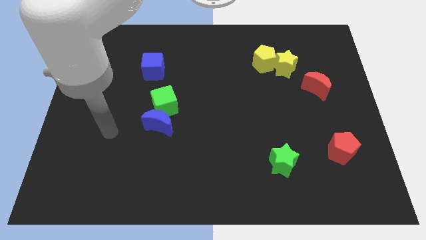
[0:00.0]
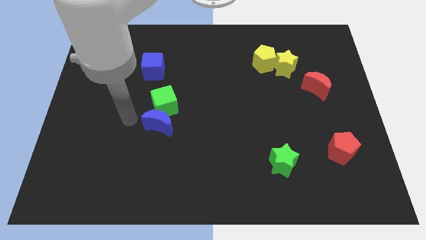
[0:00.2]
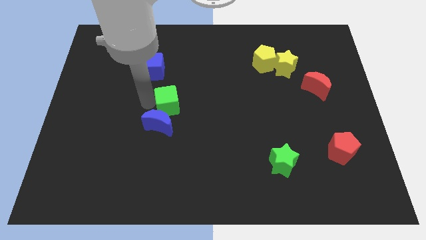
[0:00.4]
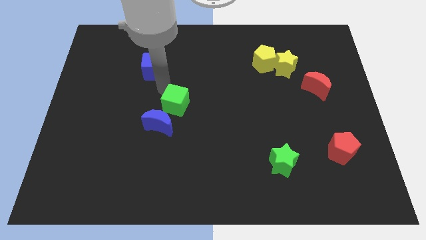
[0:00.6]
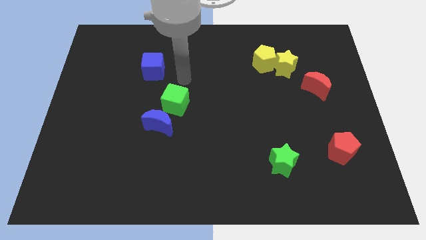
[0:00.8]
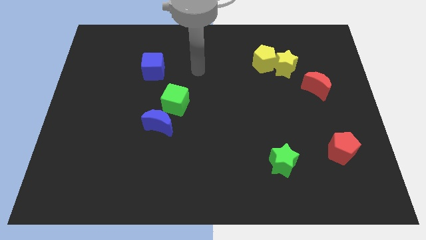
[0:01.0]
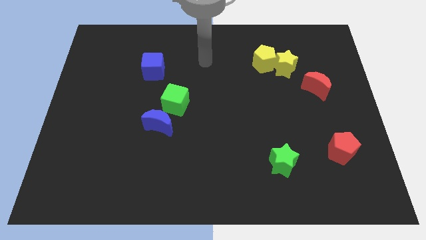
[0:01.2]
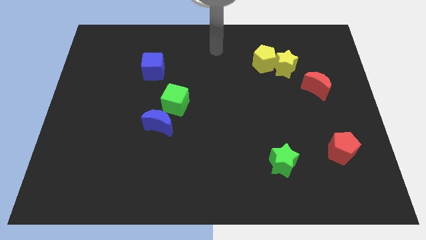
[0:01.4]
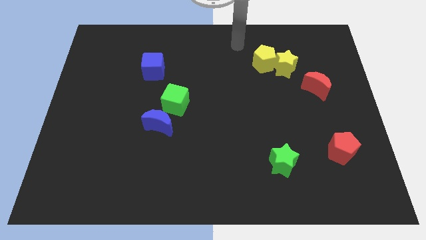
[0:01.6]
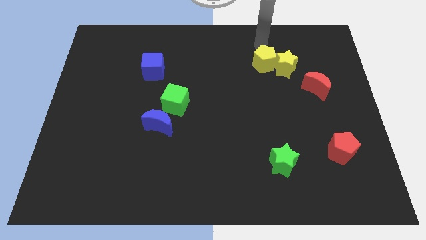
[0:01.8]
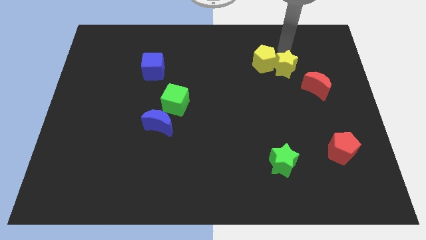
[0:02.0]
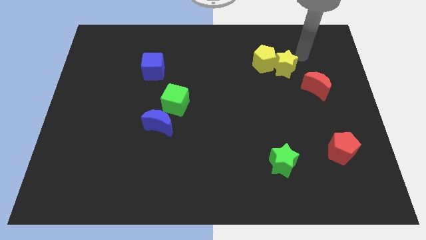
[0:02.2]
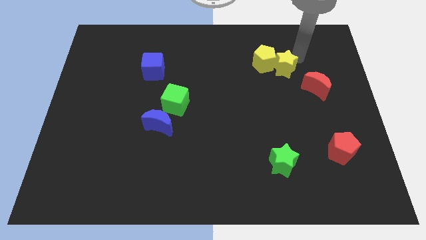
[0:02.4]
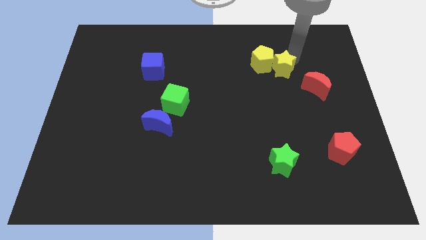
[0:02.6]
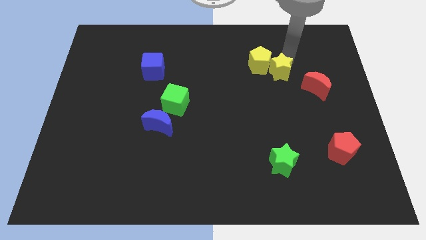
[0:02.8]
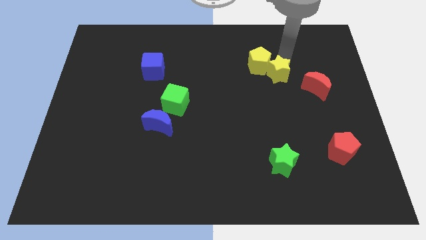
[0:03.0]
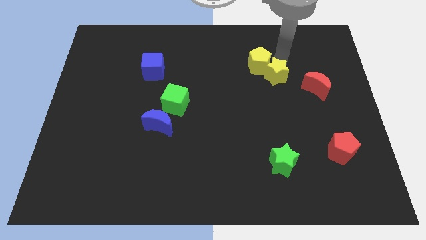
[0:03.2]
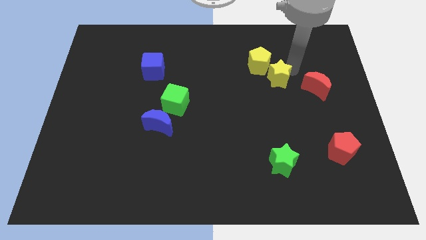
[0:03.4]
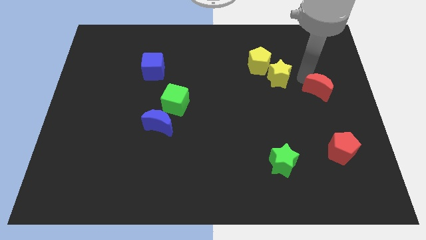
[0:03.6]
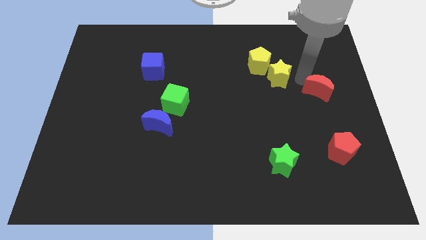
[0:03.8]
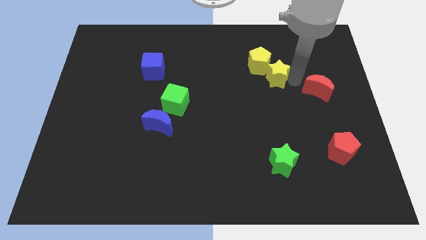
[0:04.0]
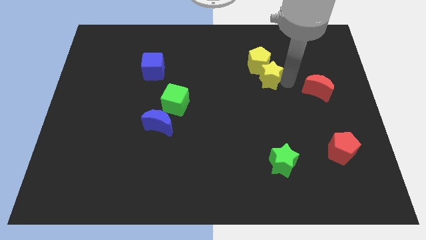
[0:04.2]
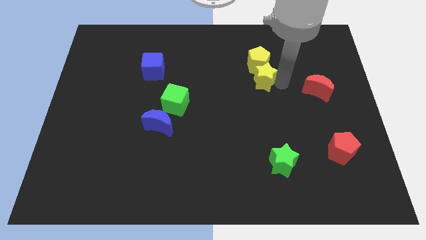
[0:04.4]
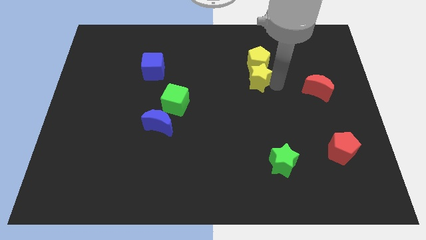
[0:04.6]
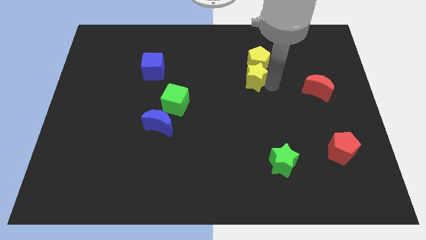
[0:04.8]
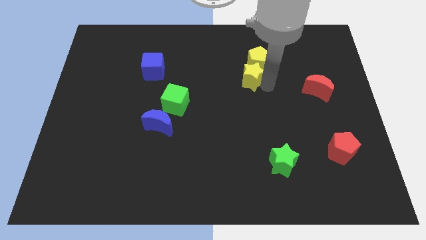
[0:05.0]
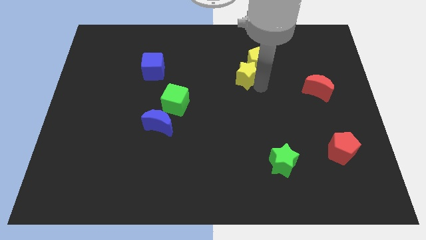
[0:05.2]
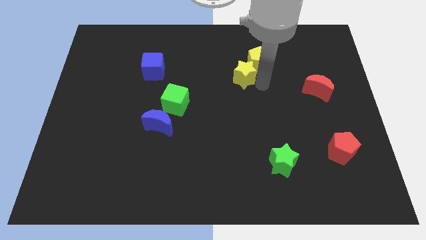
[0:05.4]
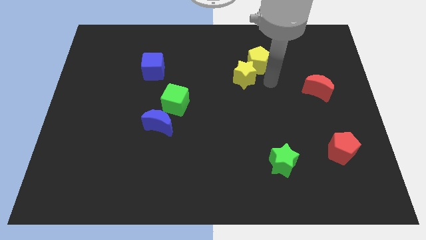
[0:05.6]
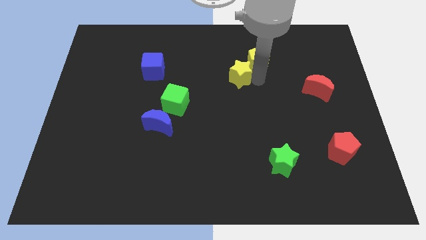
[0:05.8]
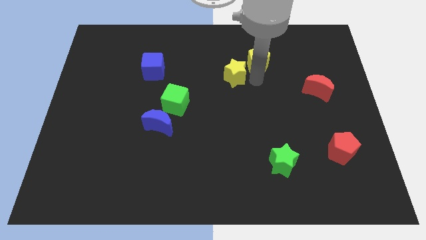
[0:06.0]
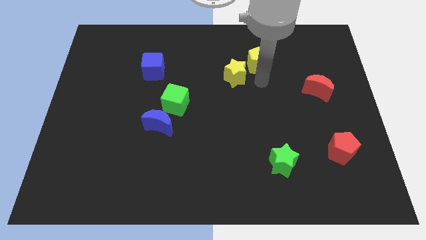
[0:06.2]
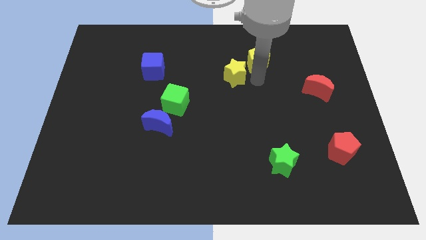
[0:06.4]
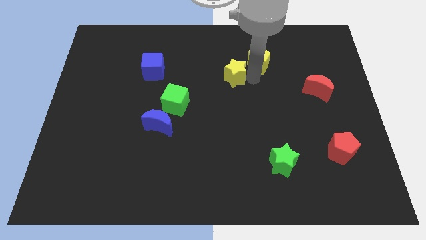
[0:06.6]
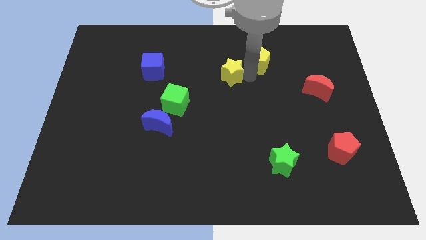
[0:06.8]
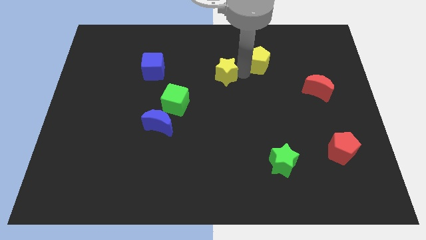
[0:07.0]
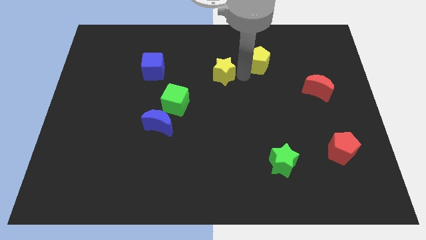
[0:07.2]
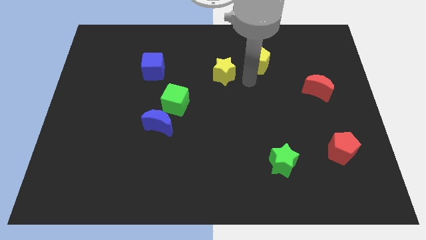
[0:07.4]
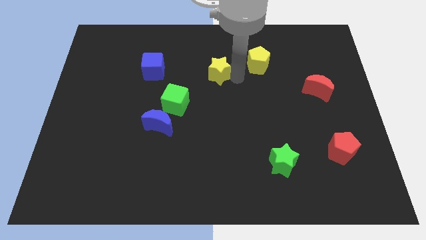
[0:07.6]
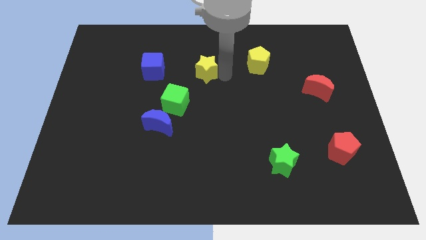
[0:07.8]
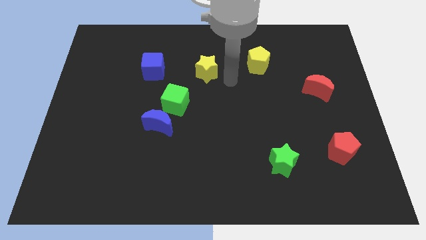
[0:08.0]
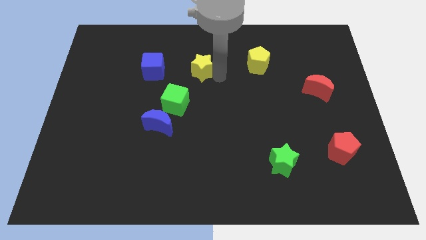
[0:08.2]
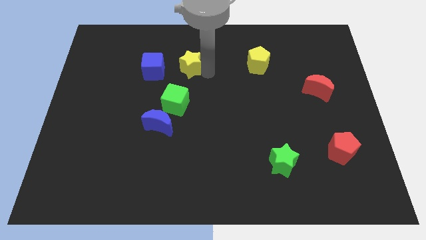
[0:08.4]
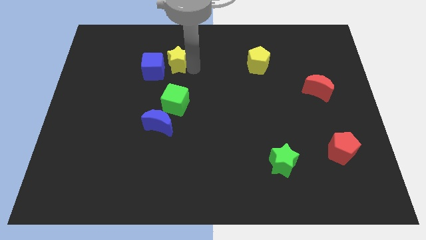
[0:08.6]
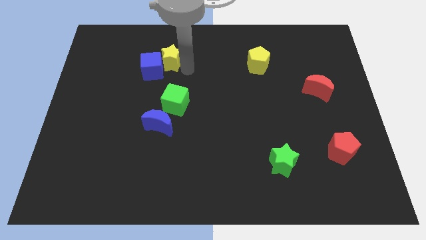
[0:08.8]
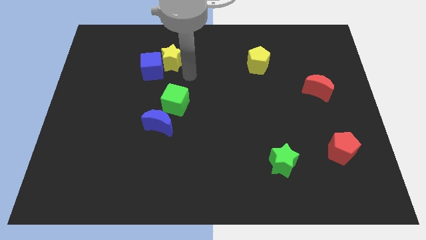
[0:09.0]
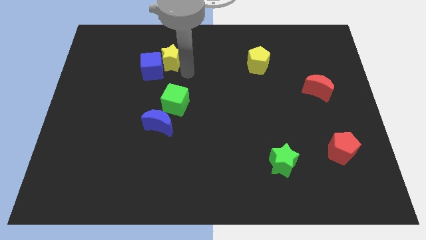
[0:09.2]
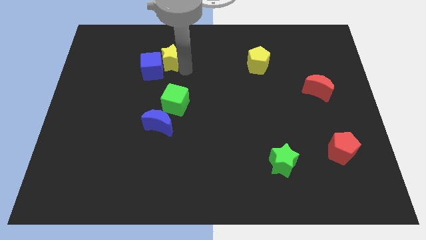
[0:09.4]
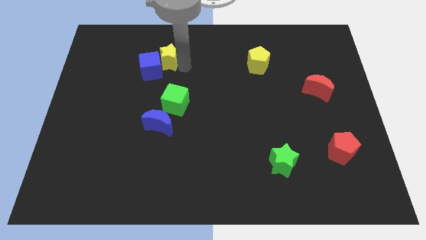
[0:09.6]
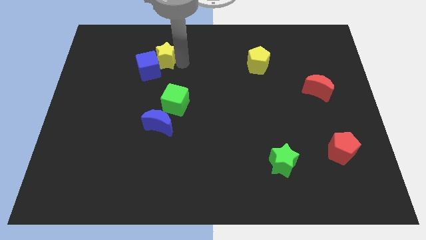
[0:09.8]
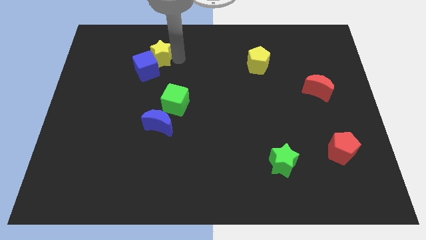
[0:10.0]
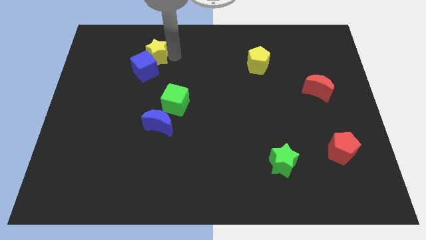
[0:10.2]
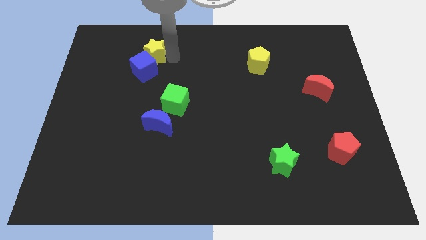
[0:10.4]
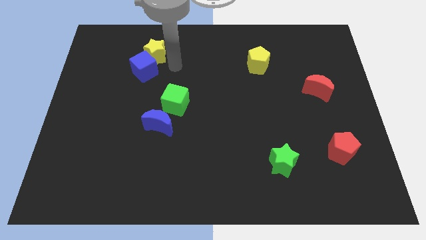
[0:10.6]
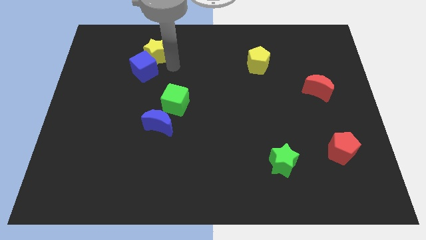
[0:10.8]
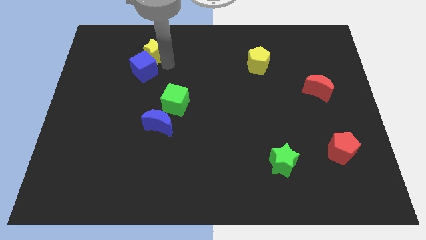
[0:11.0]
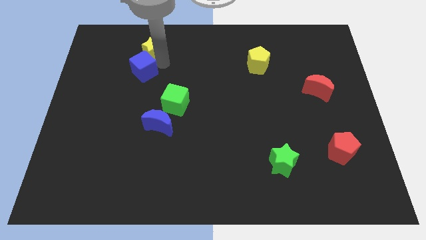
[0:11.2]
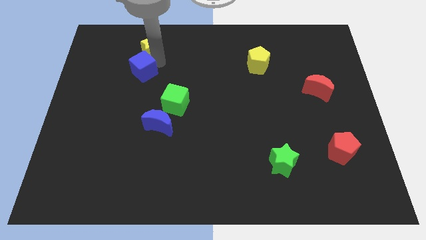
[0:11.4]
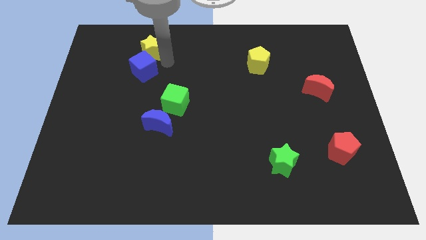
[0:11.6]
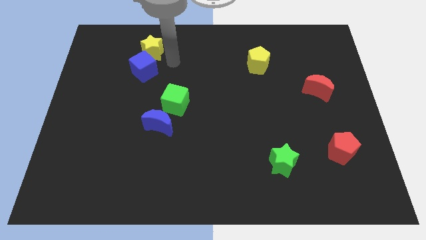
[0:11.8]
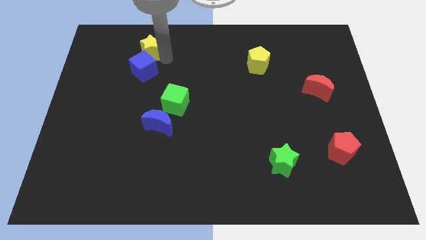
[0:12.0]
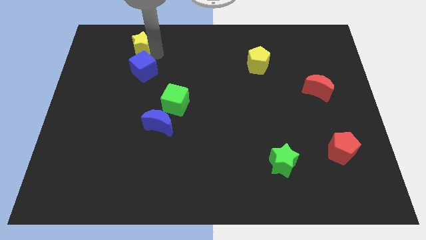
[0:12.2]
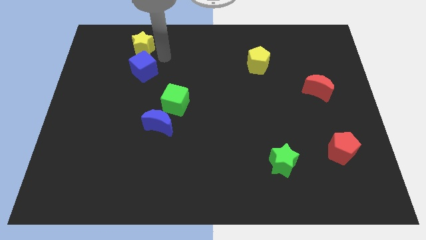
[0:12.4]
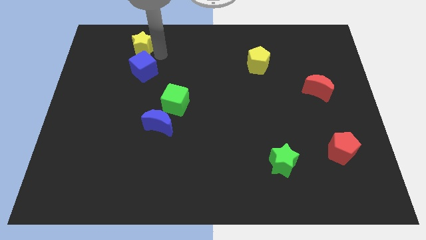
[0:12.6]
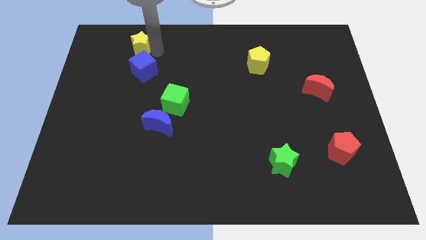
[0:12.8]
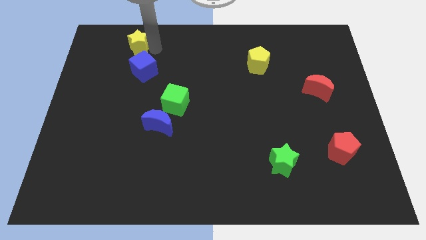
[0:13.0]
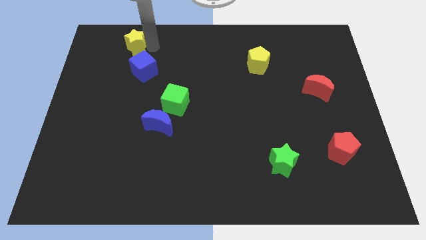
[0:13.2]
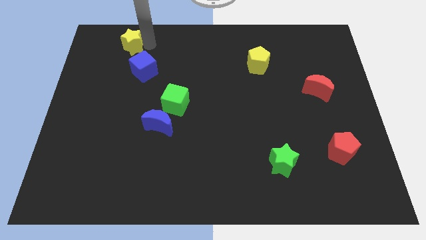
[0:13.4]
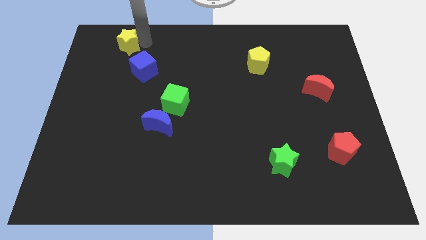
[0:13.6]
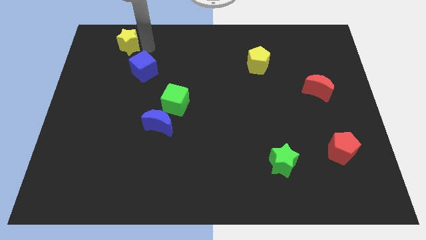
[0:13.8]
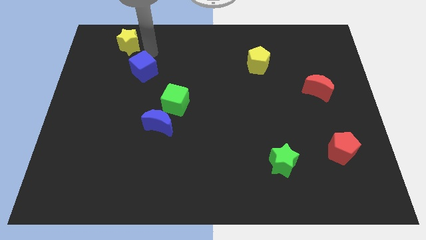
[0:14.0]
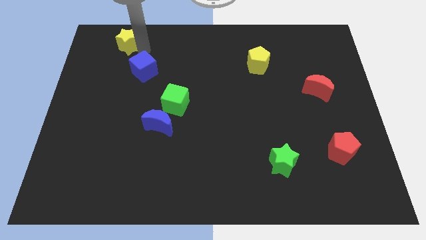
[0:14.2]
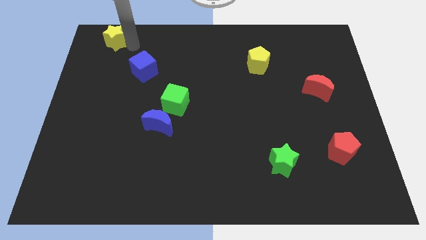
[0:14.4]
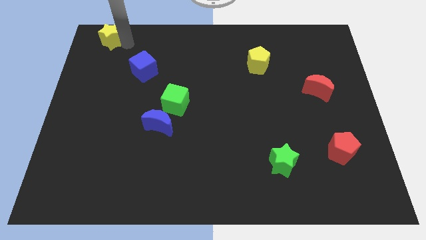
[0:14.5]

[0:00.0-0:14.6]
slide the yellow star to the upper left corner
